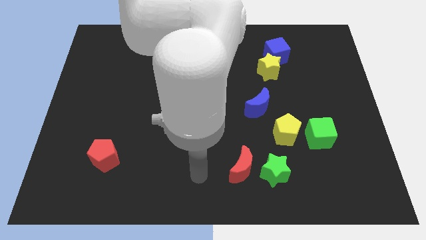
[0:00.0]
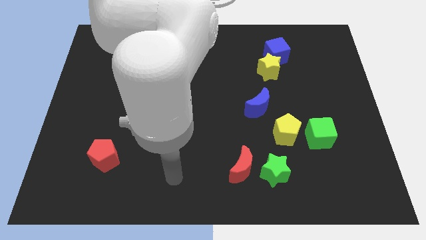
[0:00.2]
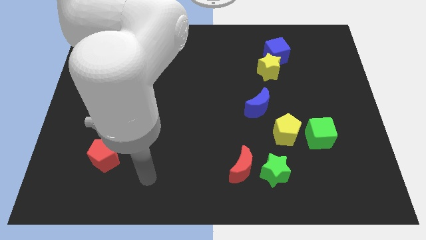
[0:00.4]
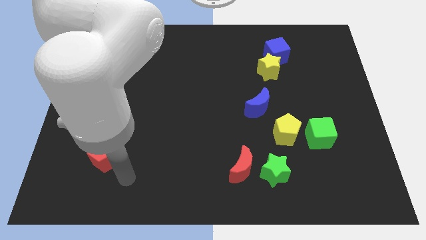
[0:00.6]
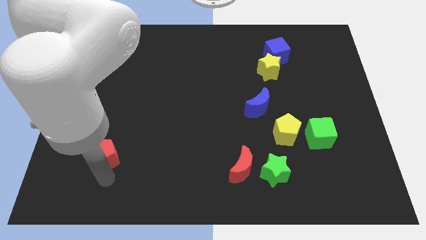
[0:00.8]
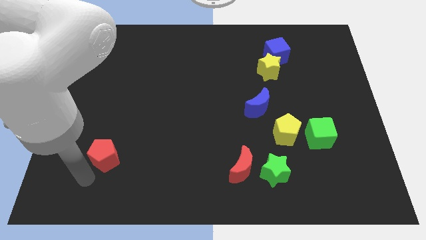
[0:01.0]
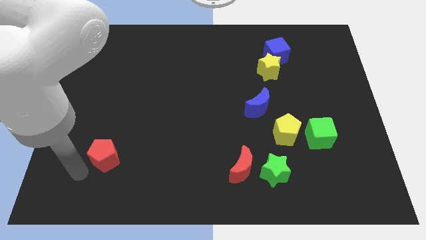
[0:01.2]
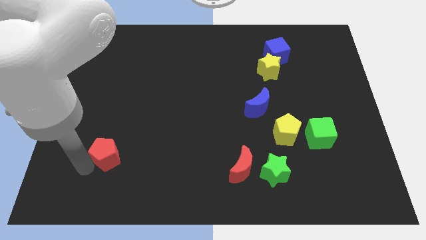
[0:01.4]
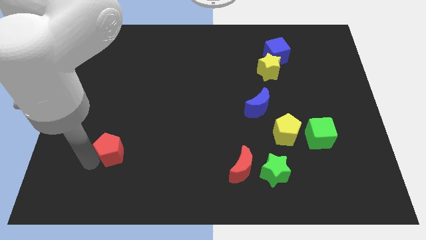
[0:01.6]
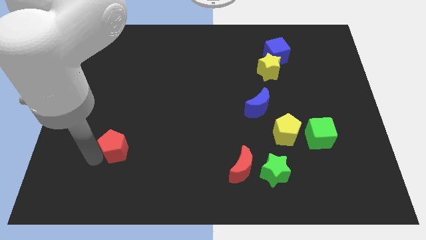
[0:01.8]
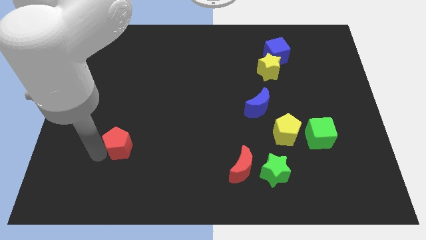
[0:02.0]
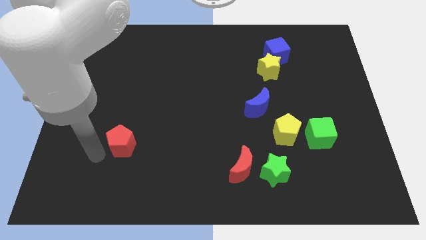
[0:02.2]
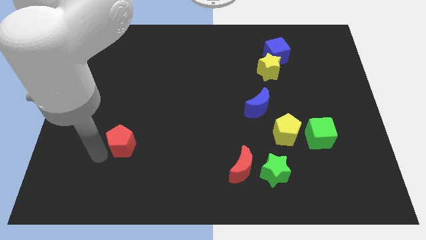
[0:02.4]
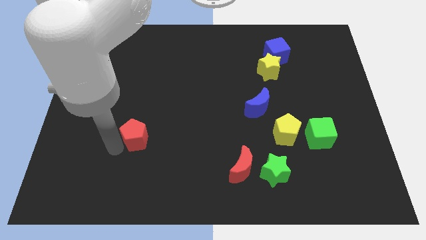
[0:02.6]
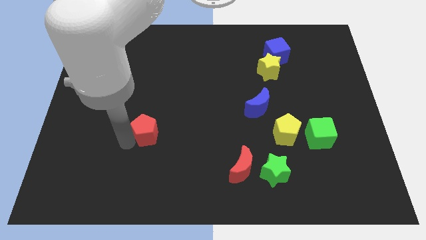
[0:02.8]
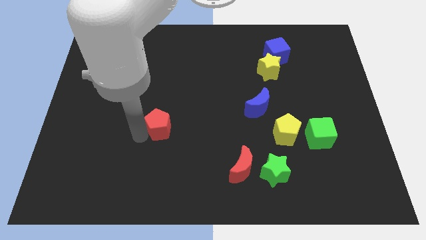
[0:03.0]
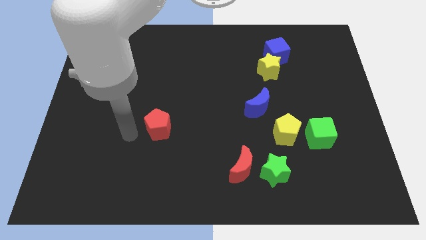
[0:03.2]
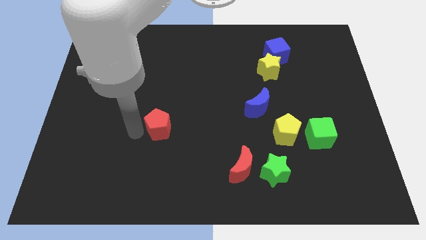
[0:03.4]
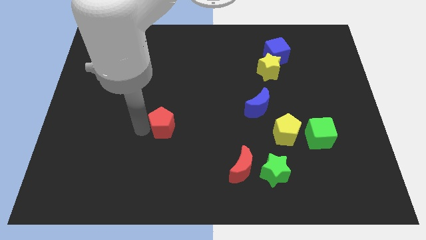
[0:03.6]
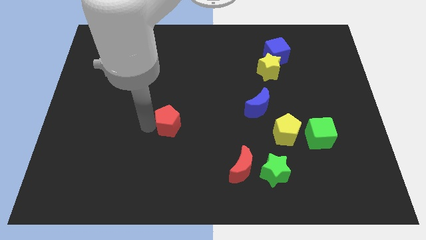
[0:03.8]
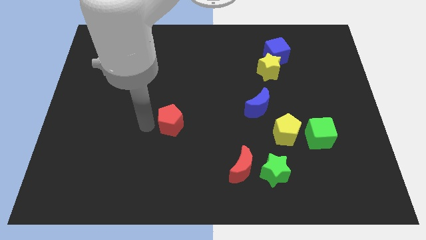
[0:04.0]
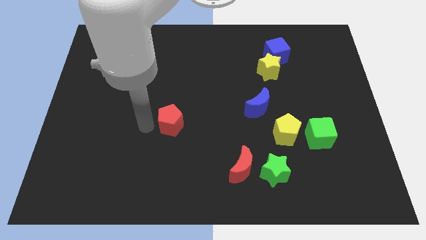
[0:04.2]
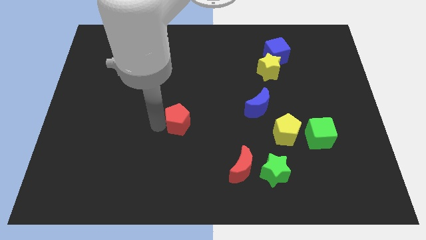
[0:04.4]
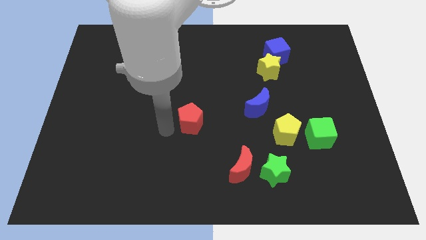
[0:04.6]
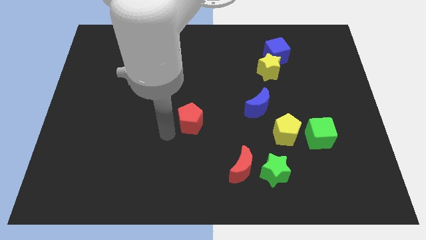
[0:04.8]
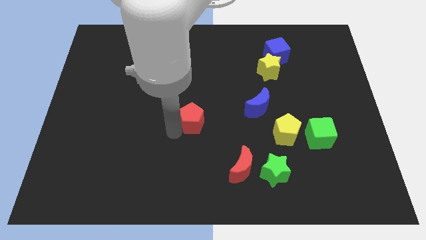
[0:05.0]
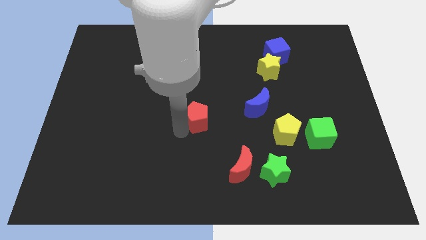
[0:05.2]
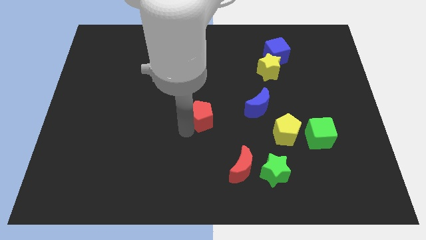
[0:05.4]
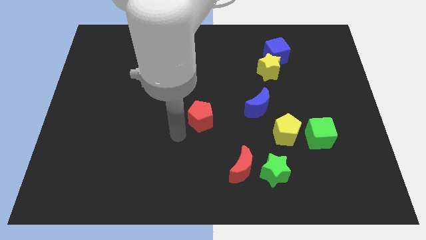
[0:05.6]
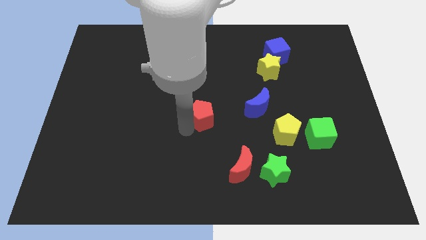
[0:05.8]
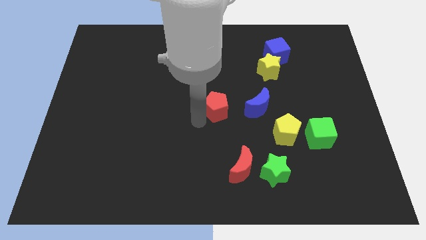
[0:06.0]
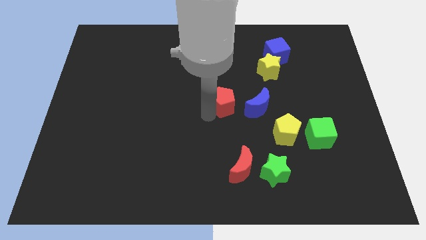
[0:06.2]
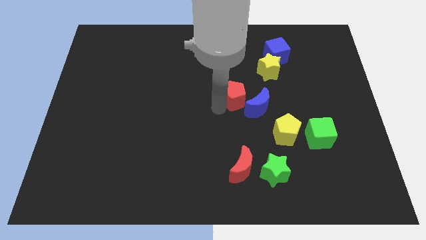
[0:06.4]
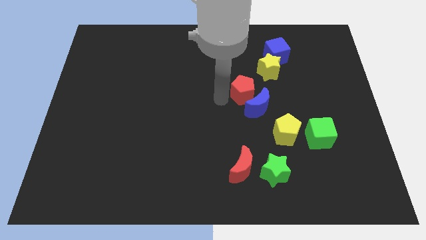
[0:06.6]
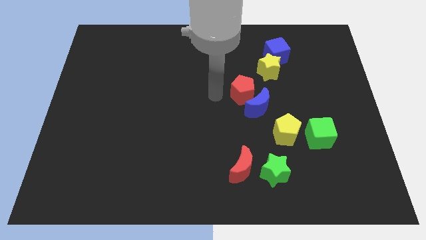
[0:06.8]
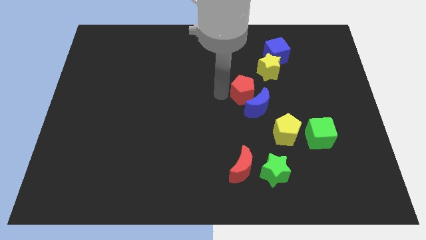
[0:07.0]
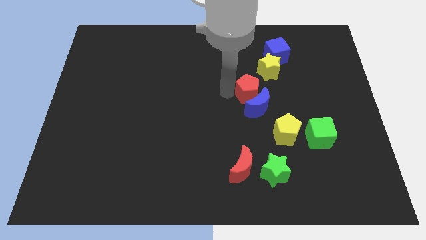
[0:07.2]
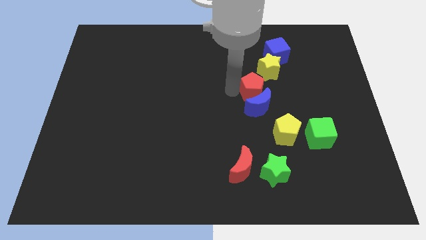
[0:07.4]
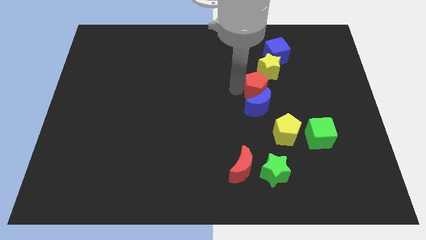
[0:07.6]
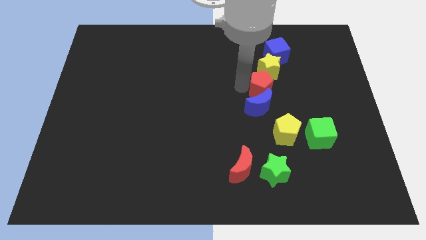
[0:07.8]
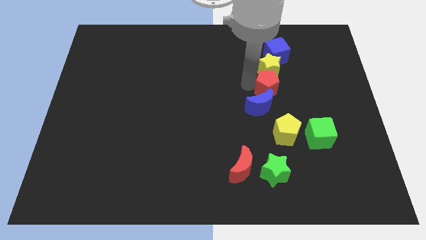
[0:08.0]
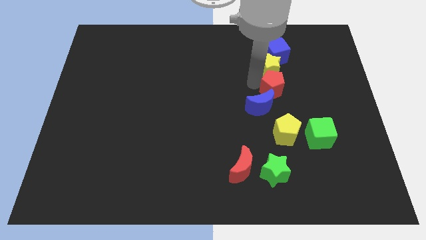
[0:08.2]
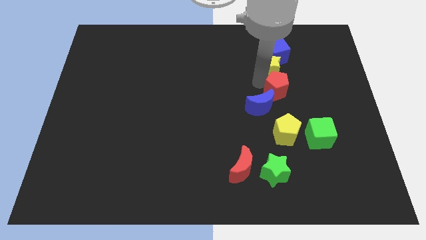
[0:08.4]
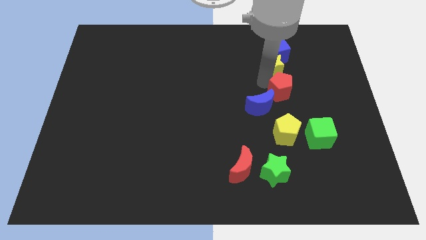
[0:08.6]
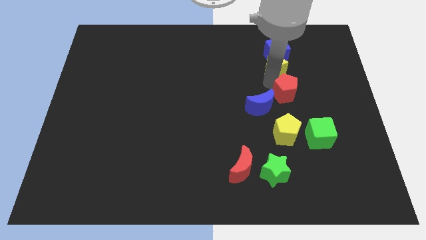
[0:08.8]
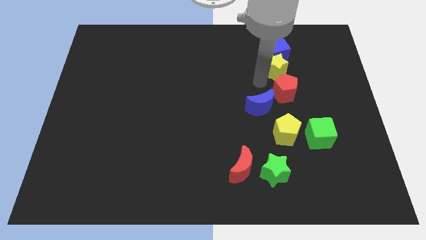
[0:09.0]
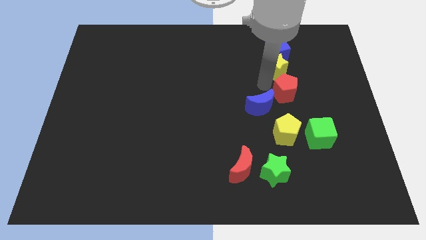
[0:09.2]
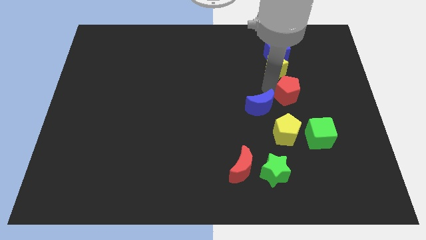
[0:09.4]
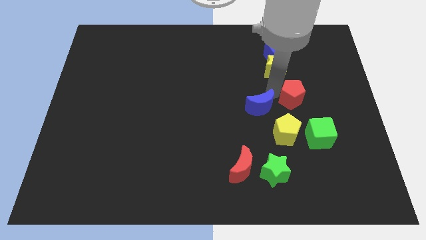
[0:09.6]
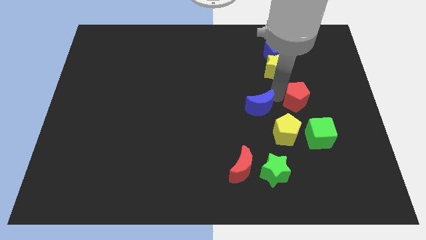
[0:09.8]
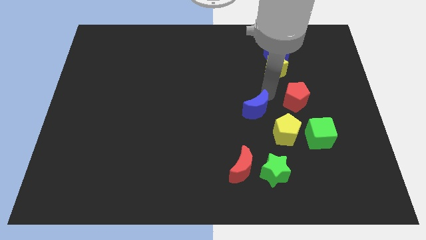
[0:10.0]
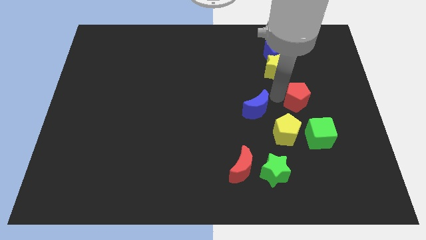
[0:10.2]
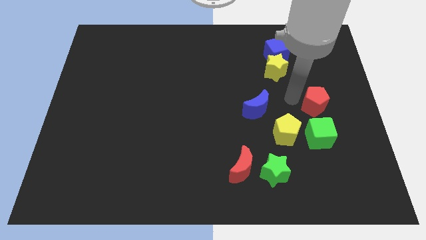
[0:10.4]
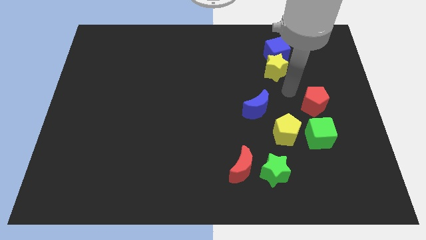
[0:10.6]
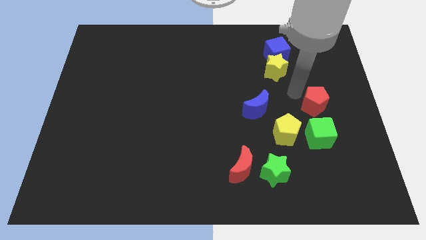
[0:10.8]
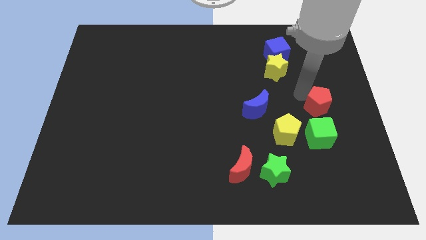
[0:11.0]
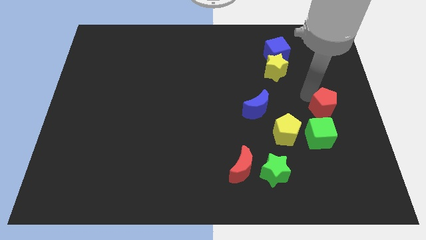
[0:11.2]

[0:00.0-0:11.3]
put the red pentagon diagonally up and to the right of the green cube

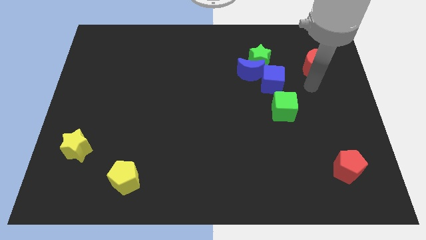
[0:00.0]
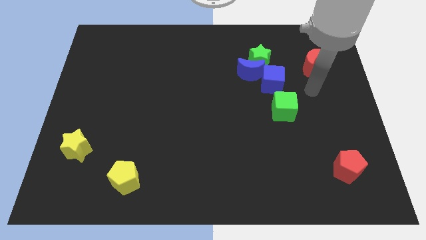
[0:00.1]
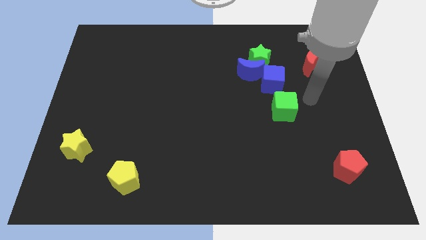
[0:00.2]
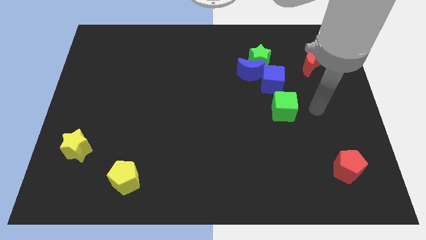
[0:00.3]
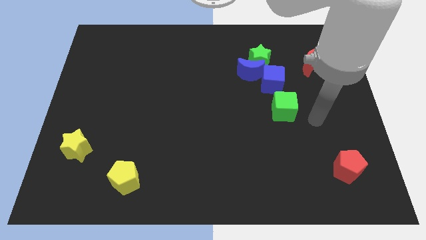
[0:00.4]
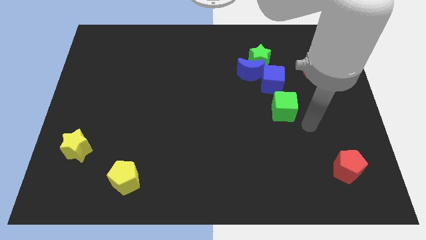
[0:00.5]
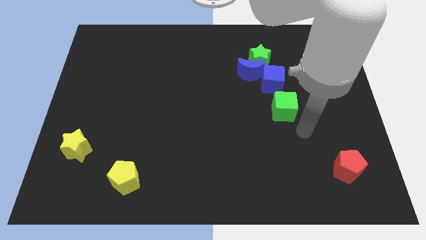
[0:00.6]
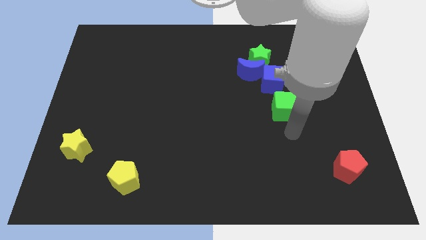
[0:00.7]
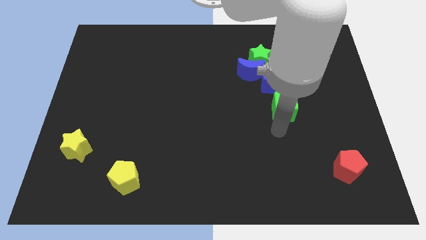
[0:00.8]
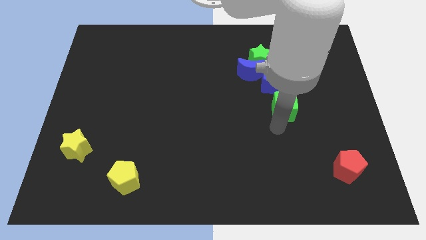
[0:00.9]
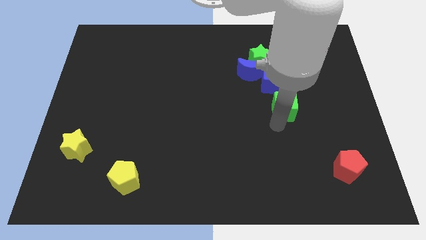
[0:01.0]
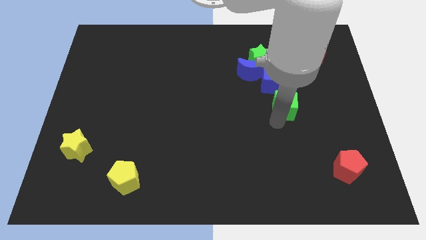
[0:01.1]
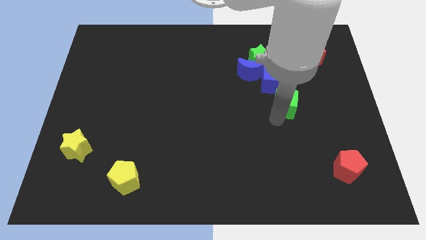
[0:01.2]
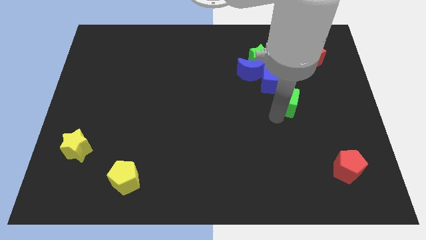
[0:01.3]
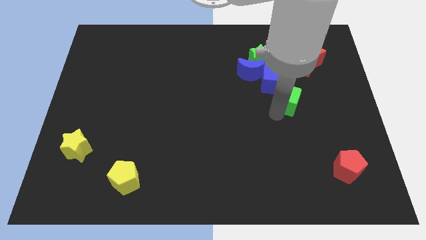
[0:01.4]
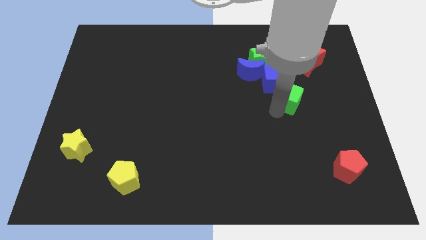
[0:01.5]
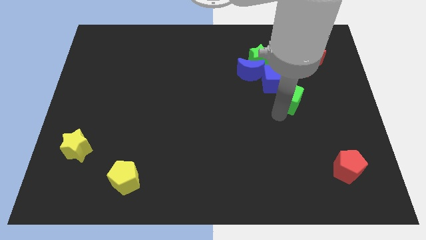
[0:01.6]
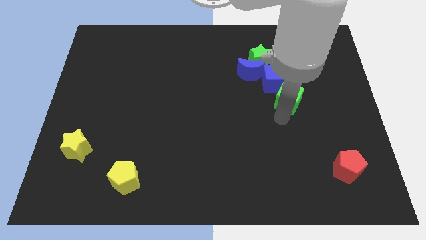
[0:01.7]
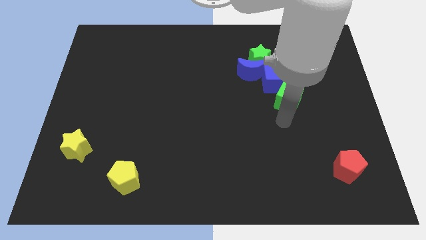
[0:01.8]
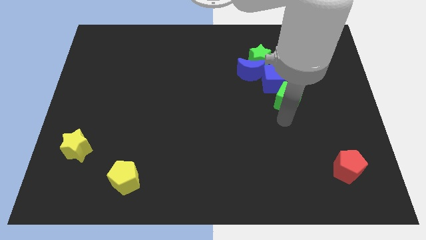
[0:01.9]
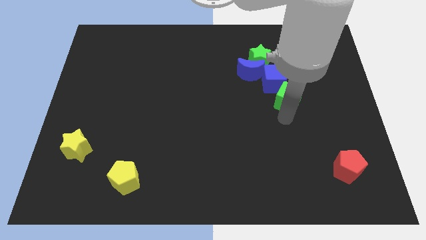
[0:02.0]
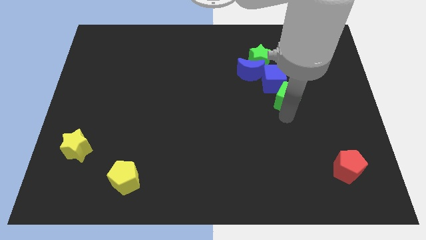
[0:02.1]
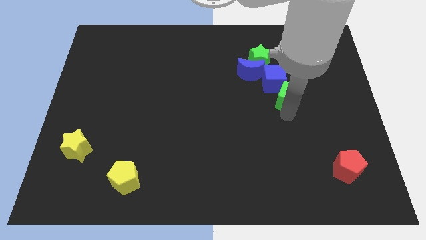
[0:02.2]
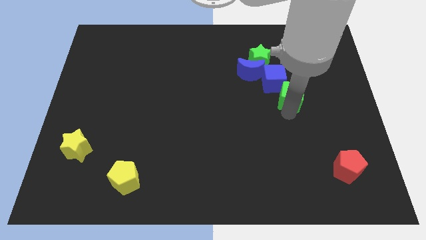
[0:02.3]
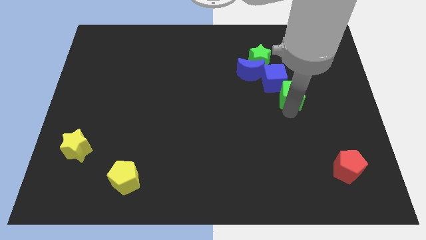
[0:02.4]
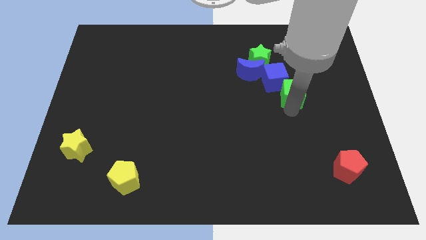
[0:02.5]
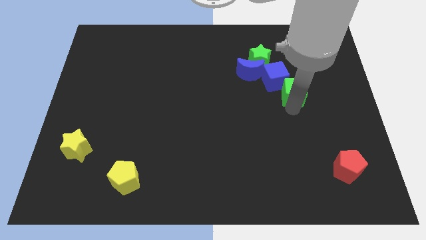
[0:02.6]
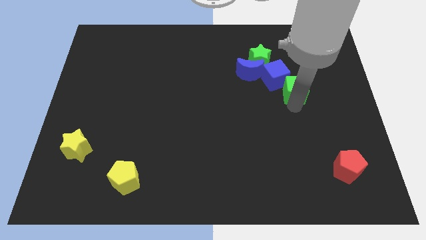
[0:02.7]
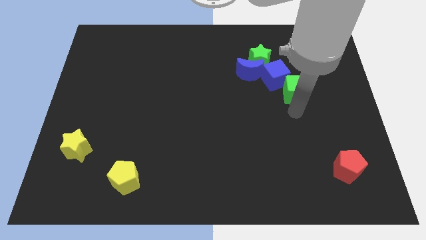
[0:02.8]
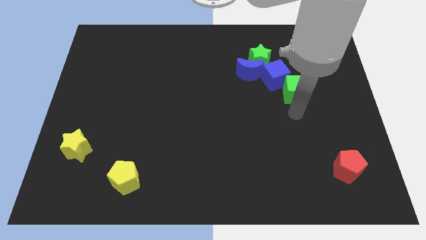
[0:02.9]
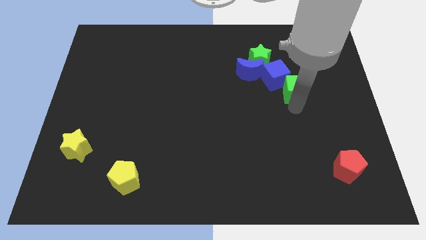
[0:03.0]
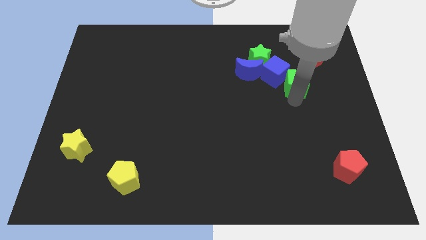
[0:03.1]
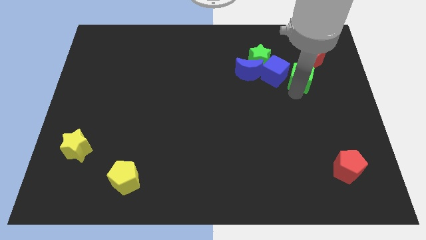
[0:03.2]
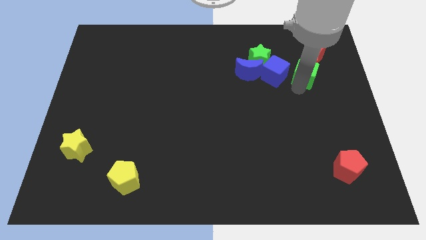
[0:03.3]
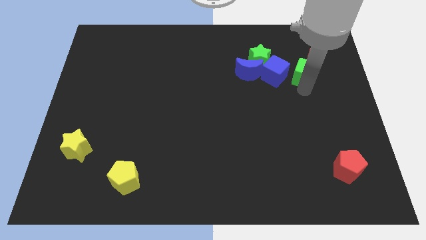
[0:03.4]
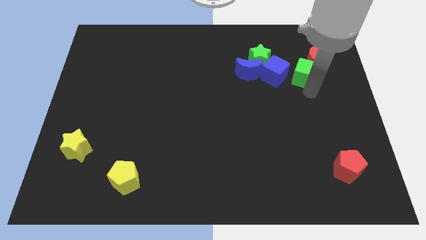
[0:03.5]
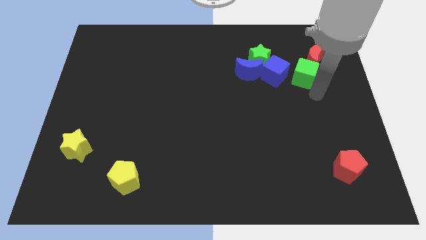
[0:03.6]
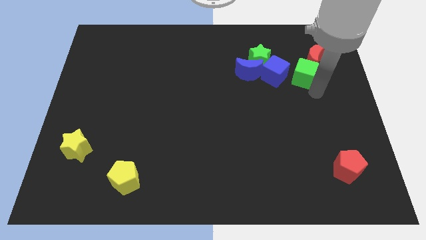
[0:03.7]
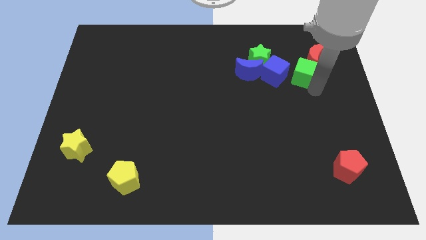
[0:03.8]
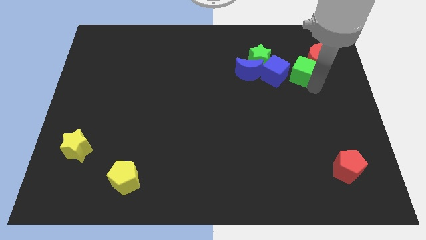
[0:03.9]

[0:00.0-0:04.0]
put the green cube diagonally up and to the right of the blue cube
